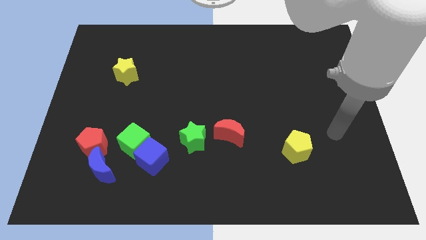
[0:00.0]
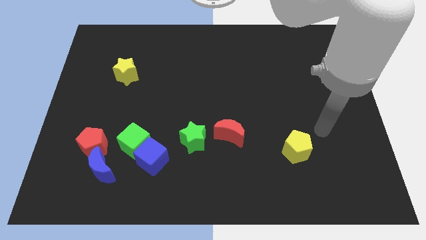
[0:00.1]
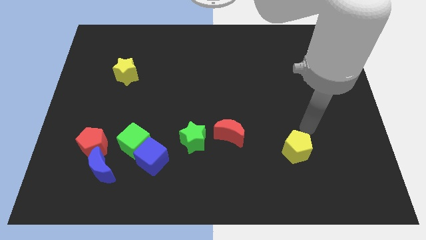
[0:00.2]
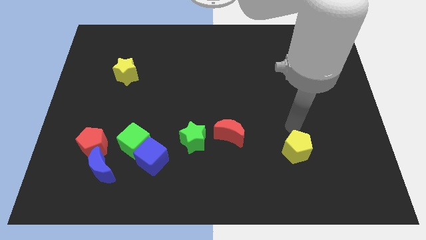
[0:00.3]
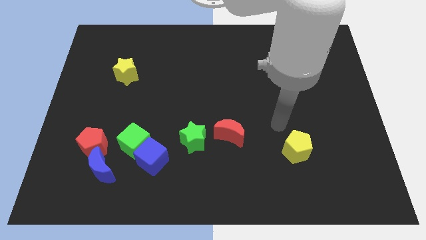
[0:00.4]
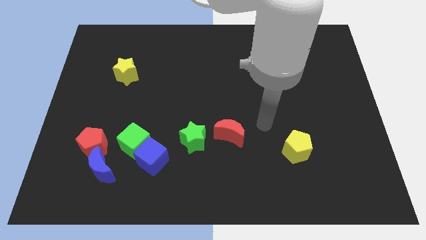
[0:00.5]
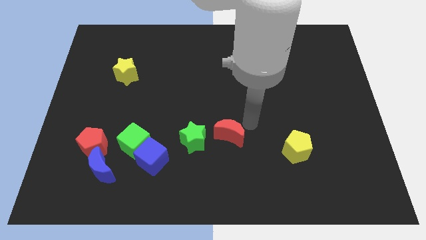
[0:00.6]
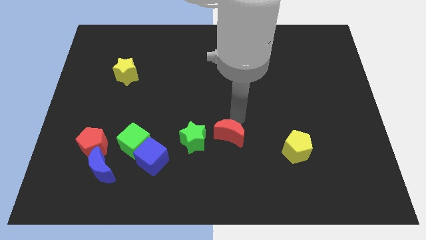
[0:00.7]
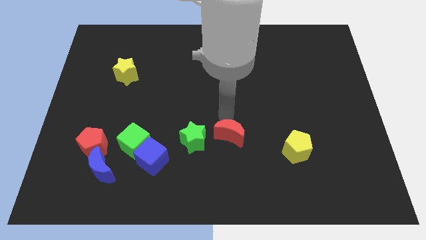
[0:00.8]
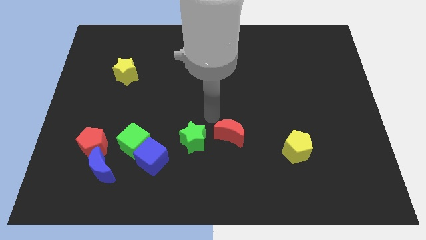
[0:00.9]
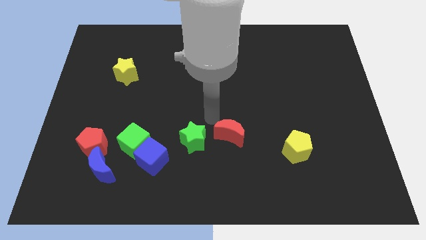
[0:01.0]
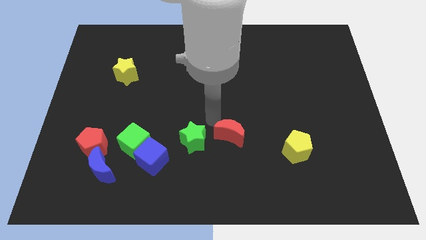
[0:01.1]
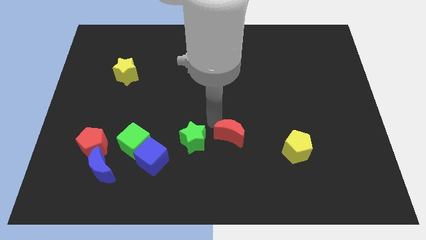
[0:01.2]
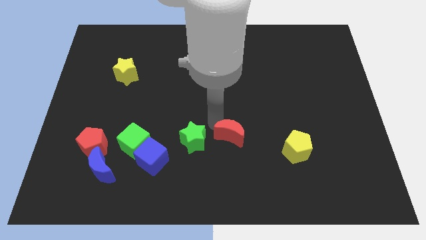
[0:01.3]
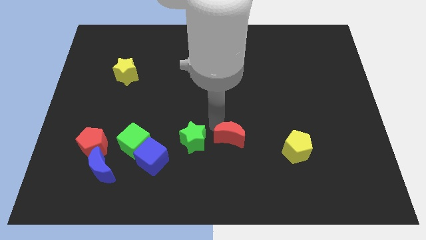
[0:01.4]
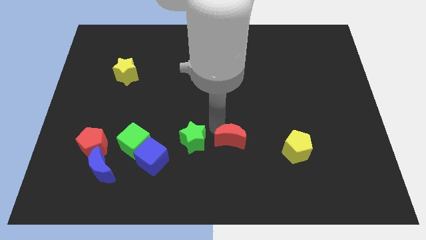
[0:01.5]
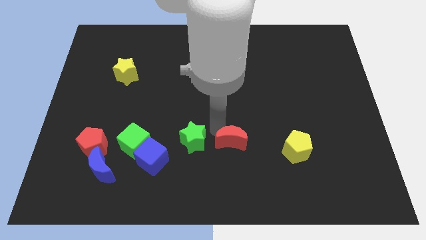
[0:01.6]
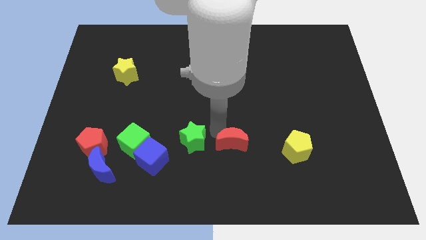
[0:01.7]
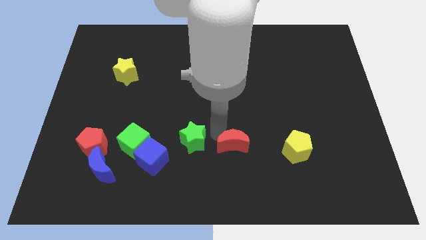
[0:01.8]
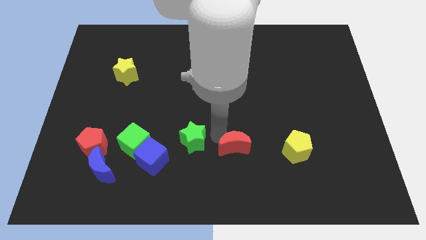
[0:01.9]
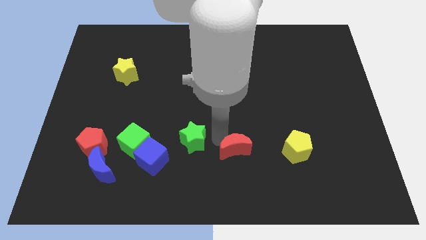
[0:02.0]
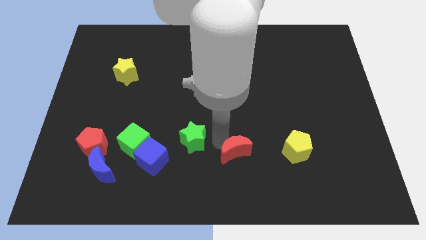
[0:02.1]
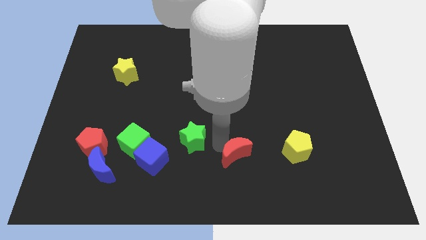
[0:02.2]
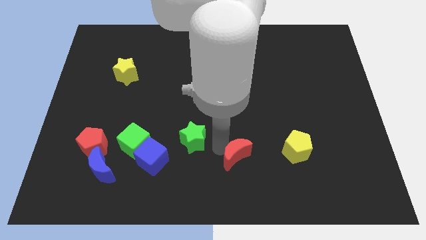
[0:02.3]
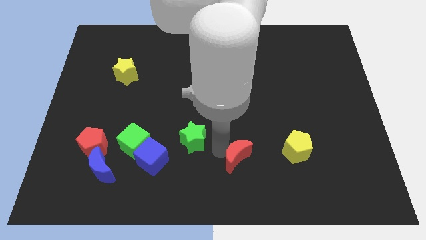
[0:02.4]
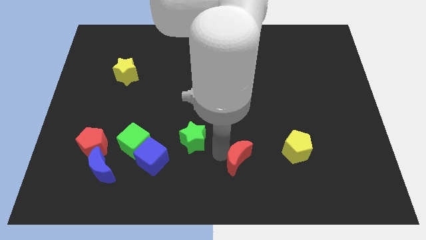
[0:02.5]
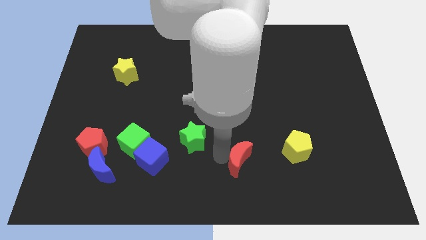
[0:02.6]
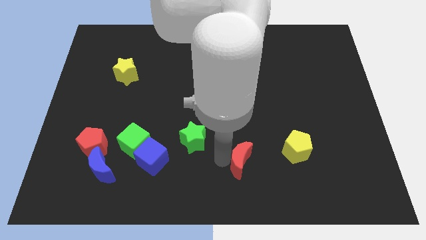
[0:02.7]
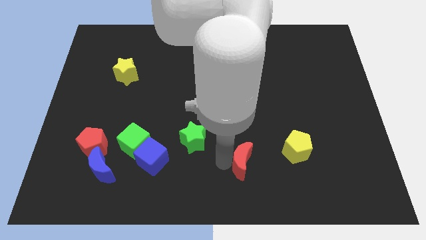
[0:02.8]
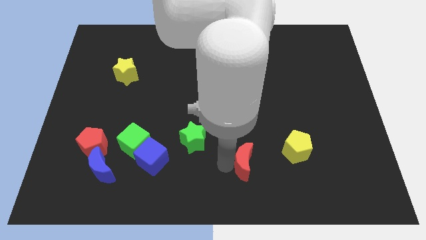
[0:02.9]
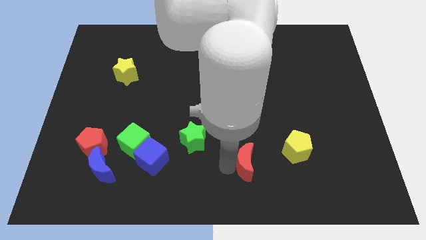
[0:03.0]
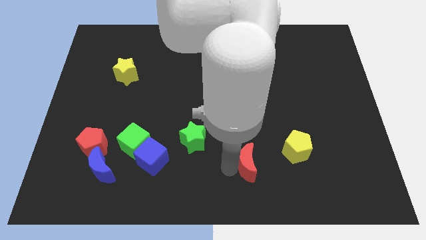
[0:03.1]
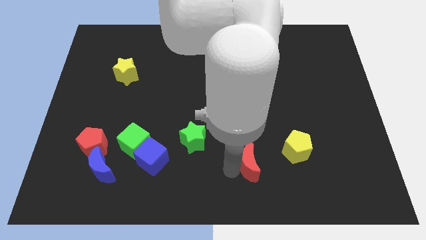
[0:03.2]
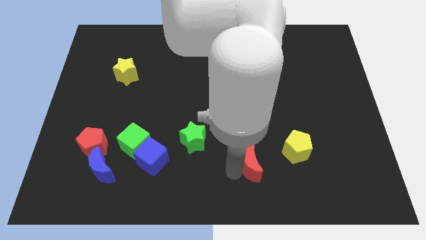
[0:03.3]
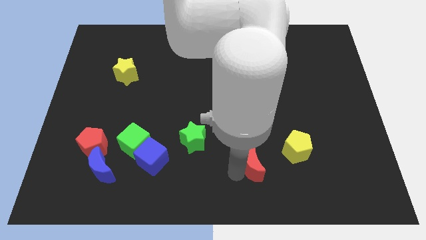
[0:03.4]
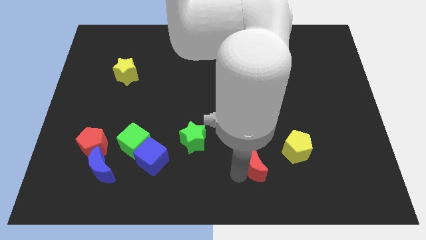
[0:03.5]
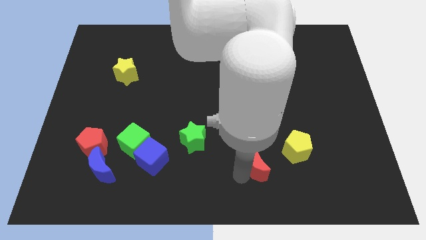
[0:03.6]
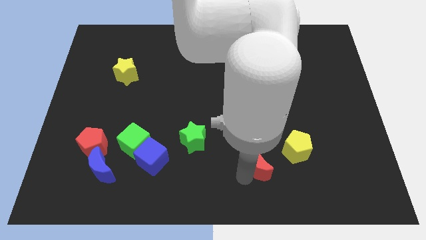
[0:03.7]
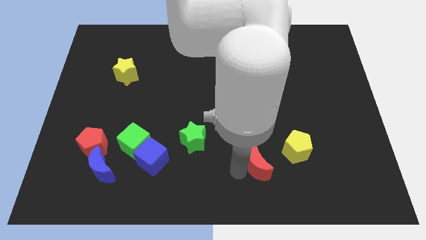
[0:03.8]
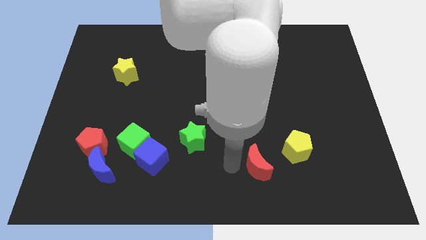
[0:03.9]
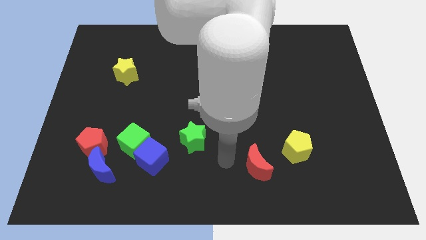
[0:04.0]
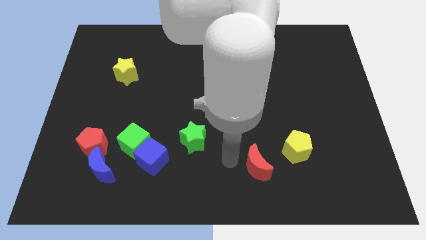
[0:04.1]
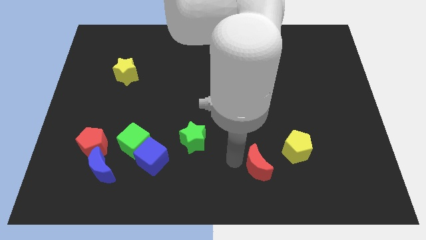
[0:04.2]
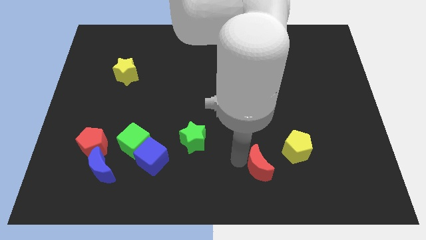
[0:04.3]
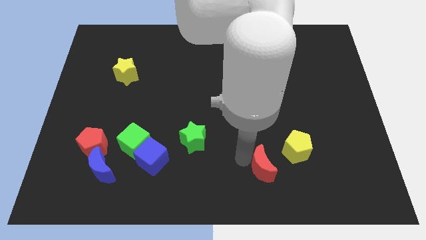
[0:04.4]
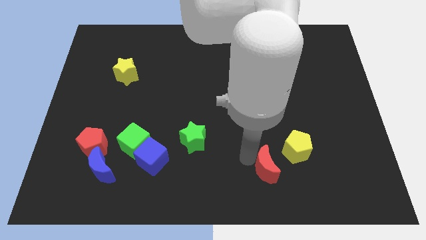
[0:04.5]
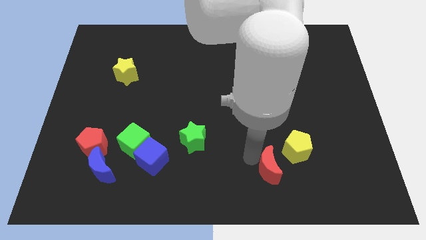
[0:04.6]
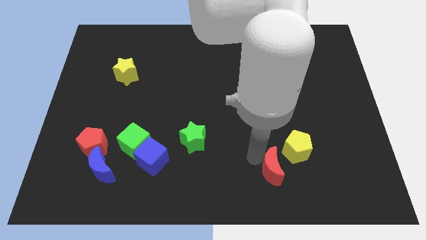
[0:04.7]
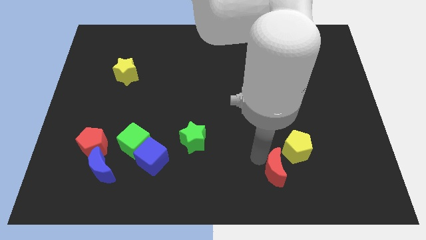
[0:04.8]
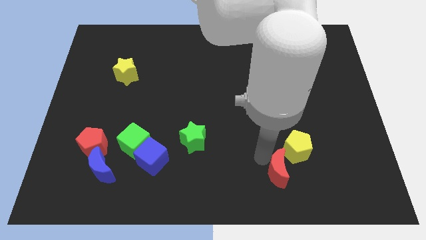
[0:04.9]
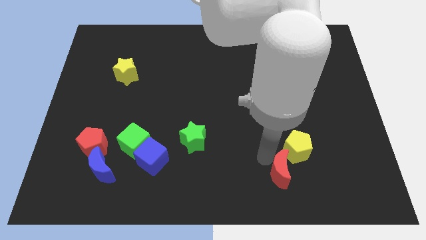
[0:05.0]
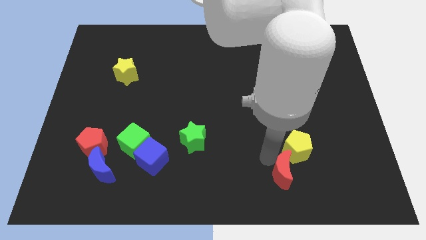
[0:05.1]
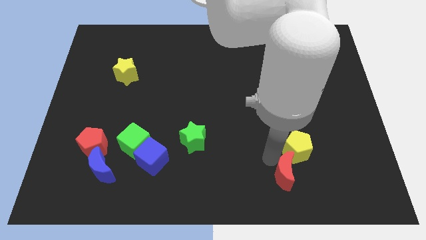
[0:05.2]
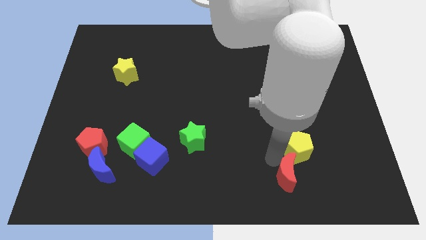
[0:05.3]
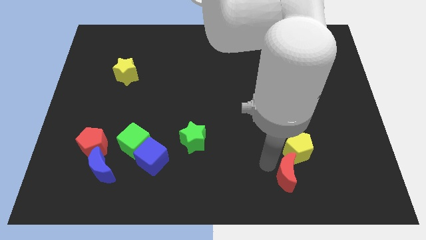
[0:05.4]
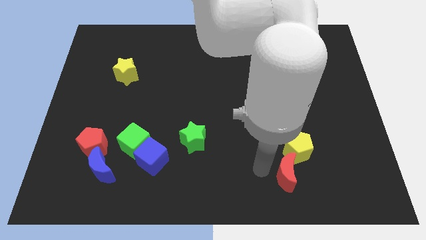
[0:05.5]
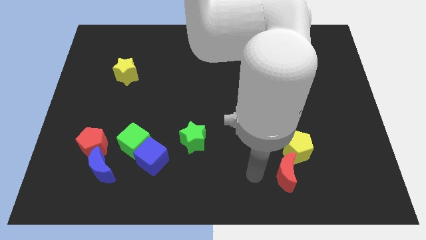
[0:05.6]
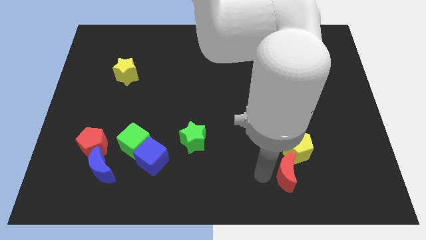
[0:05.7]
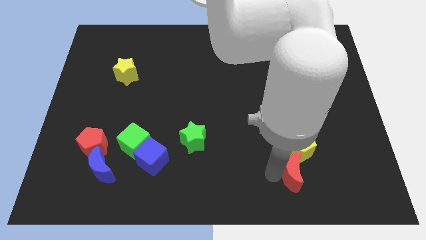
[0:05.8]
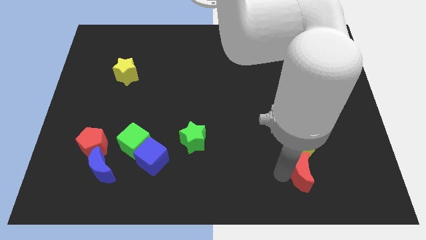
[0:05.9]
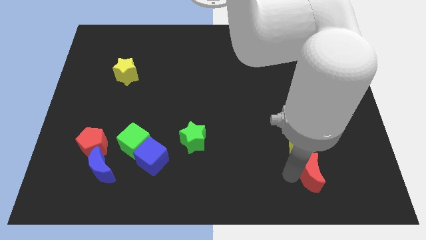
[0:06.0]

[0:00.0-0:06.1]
slide the red moon to the bottom right side of the yellow pentagon

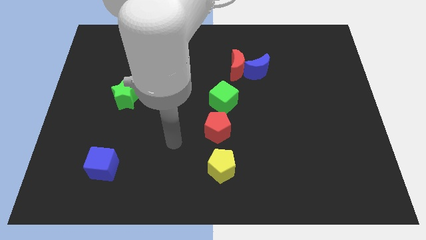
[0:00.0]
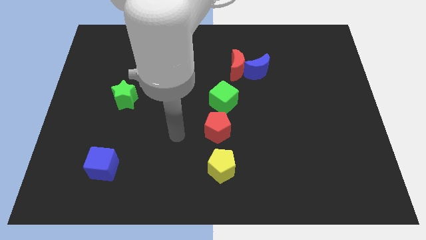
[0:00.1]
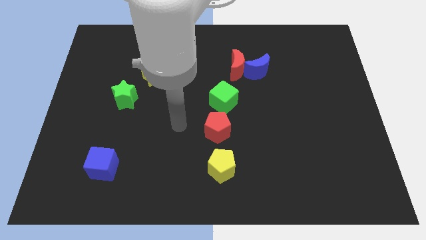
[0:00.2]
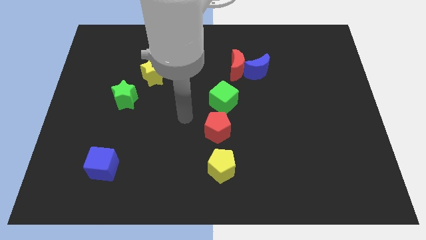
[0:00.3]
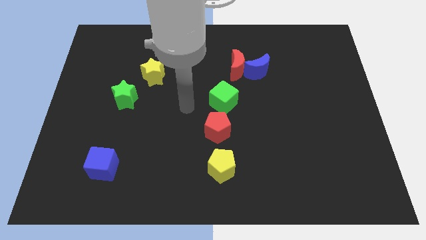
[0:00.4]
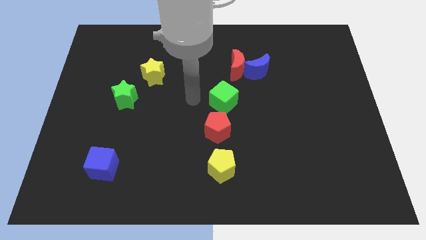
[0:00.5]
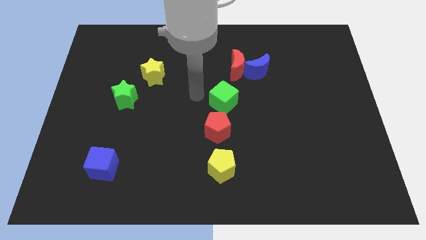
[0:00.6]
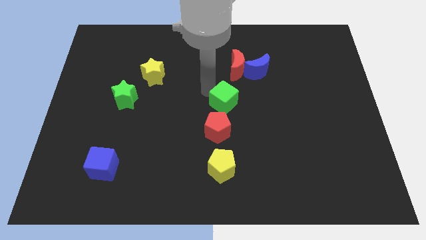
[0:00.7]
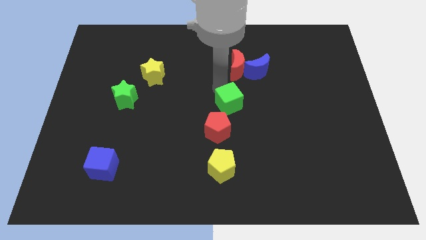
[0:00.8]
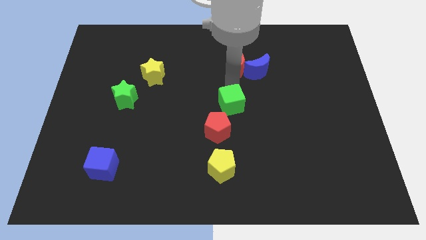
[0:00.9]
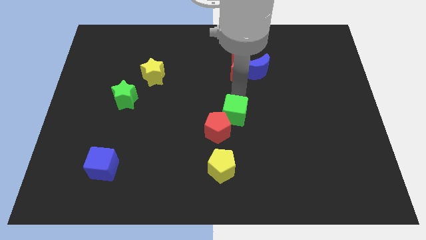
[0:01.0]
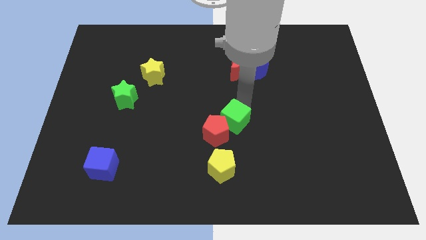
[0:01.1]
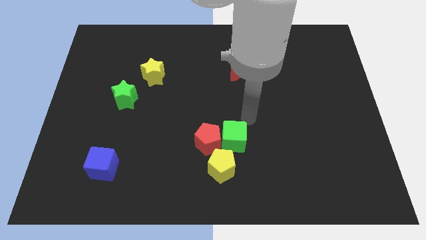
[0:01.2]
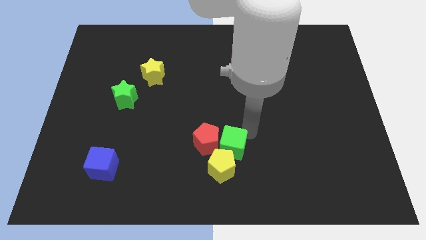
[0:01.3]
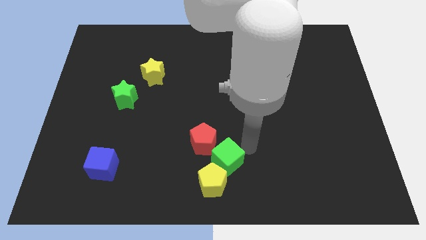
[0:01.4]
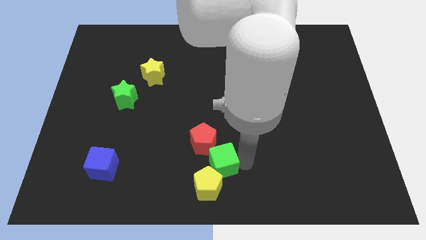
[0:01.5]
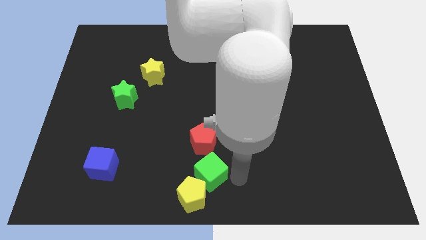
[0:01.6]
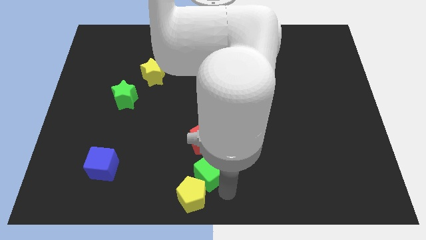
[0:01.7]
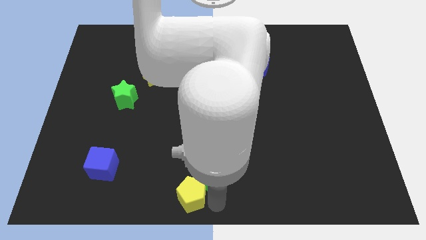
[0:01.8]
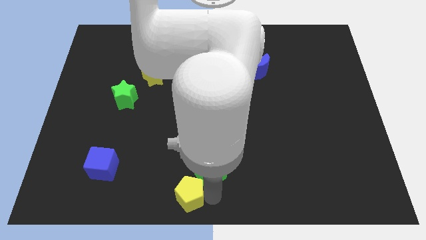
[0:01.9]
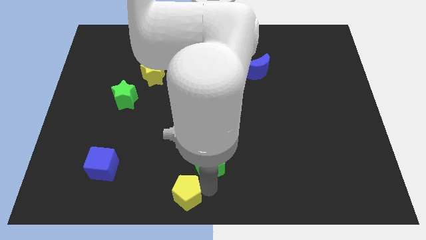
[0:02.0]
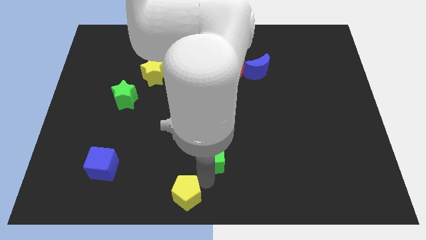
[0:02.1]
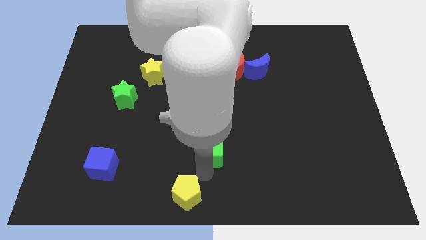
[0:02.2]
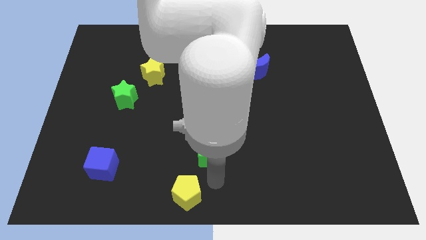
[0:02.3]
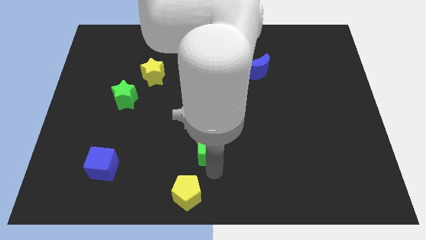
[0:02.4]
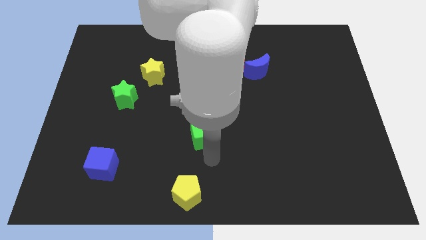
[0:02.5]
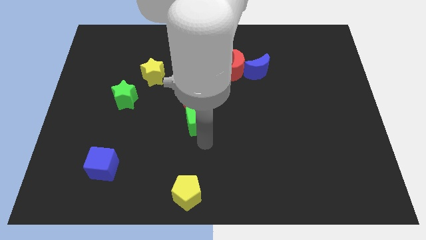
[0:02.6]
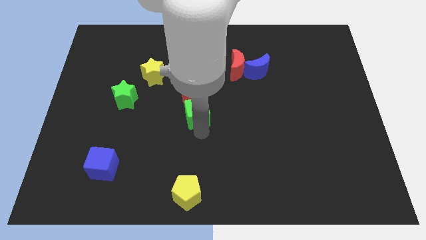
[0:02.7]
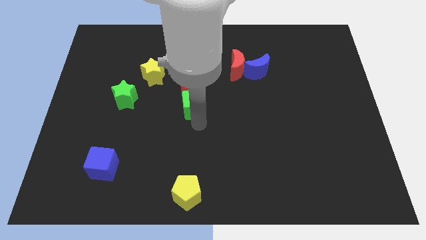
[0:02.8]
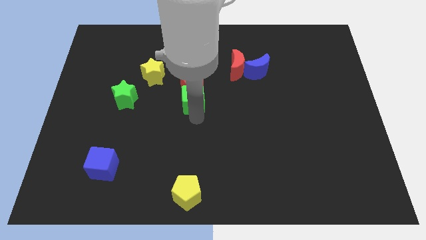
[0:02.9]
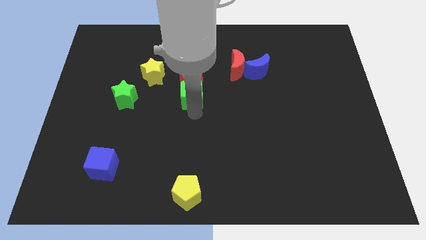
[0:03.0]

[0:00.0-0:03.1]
slide the green cube to the bottom right side of the yellow star
